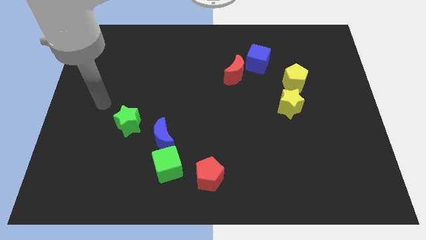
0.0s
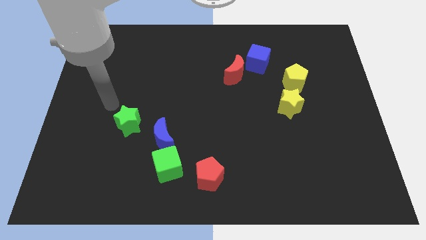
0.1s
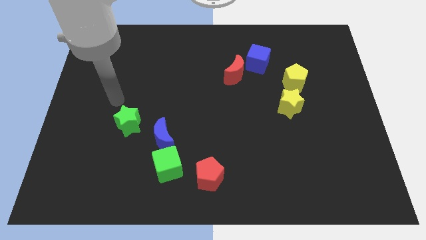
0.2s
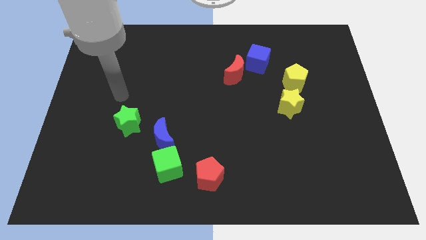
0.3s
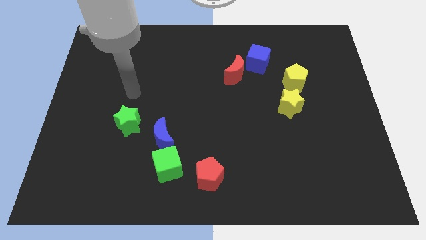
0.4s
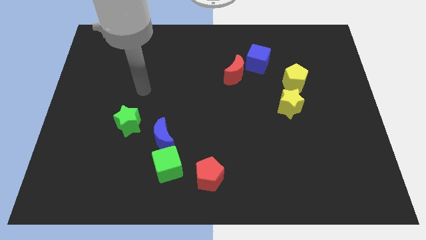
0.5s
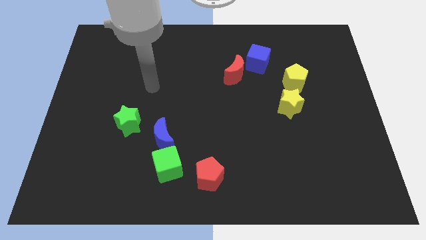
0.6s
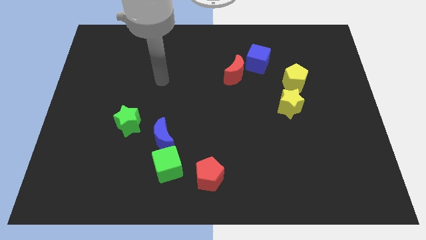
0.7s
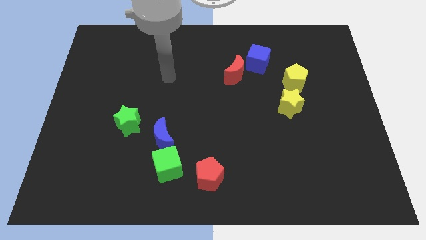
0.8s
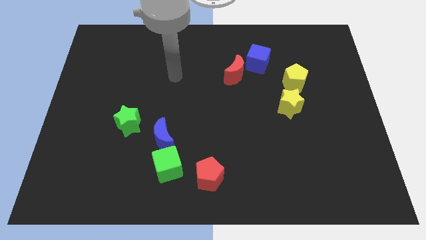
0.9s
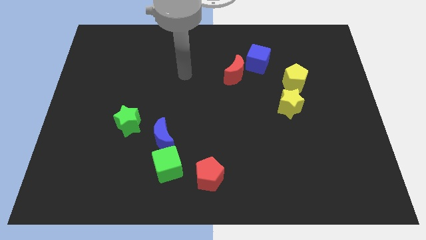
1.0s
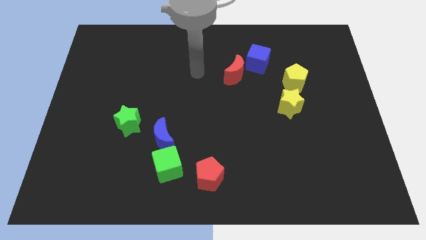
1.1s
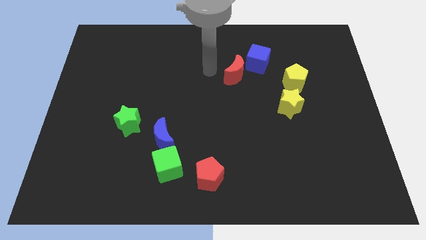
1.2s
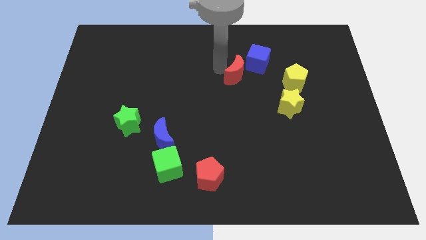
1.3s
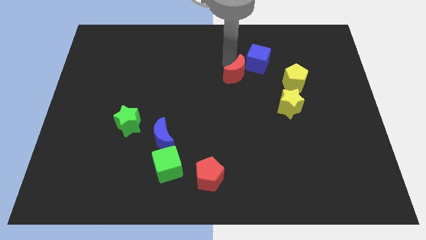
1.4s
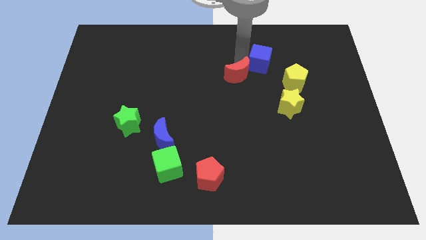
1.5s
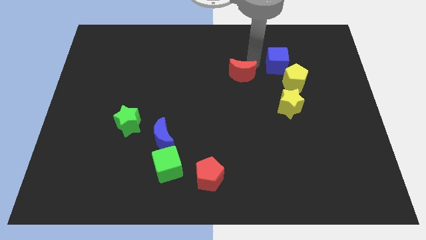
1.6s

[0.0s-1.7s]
pull the red moon apart from the blue cube

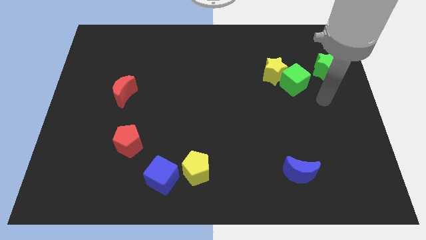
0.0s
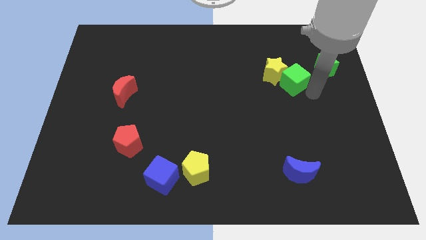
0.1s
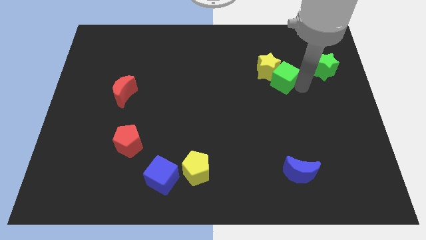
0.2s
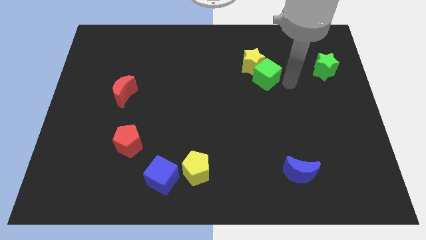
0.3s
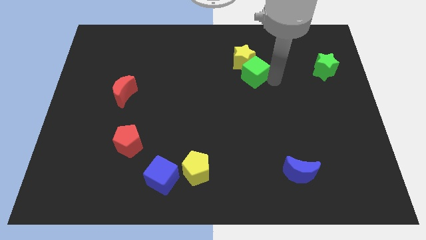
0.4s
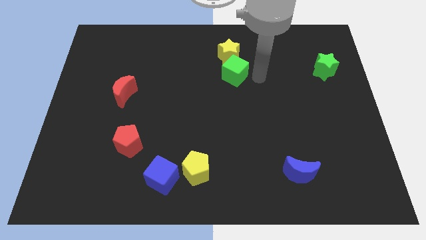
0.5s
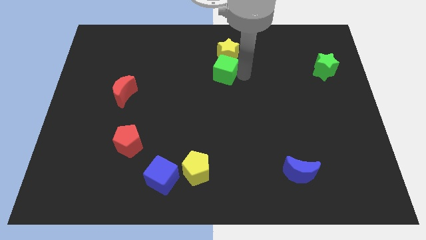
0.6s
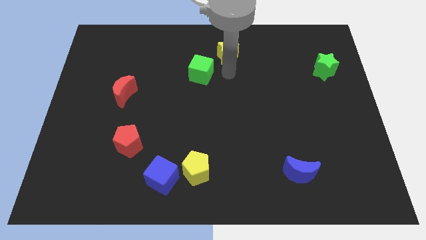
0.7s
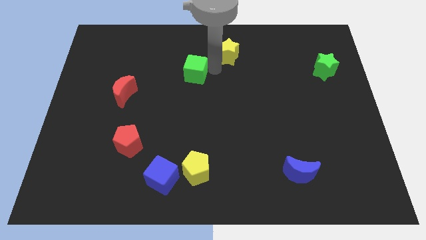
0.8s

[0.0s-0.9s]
move the yellow star away from the green cube

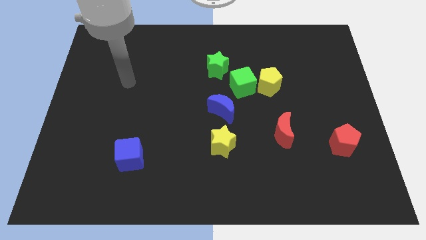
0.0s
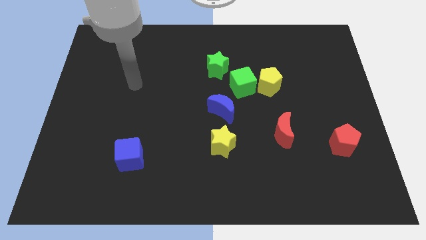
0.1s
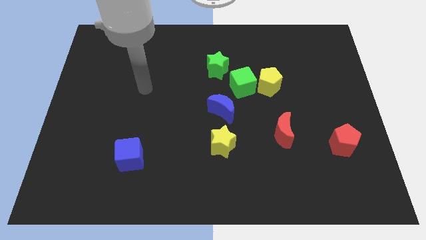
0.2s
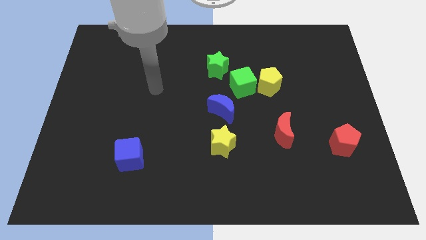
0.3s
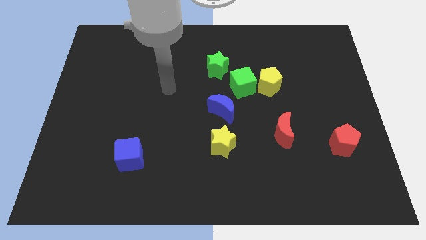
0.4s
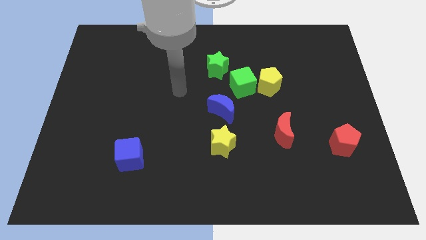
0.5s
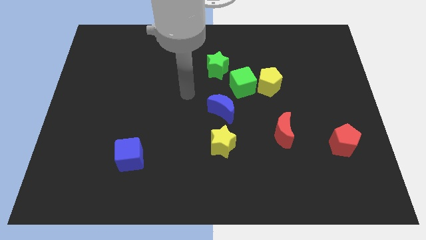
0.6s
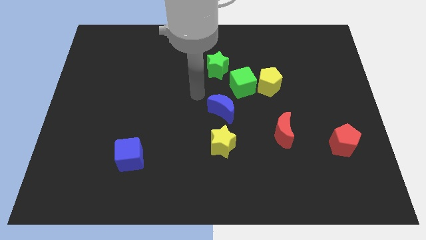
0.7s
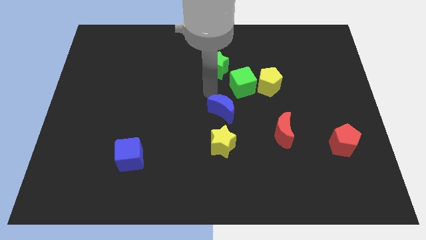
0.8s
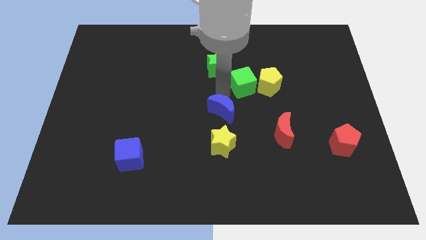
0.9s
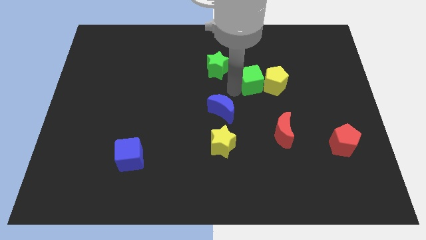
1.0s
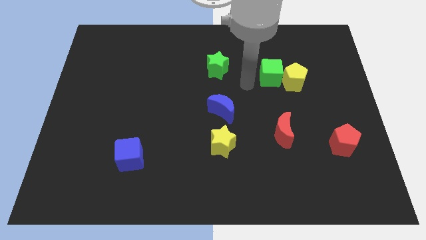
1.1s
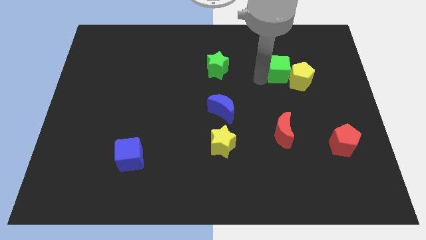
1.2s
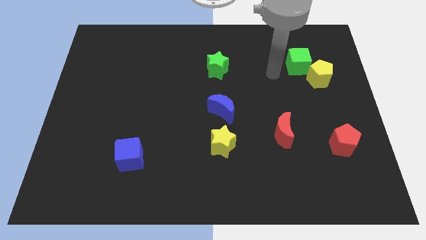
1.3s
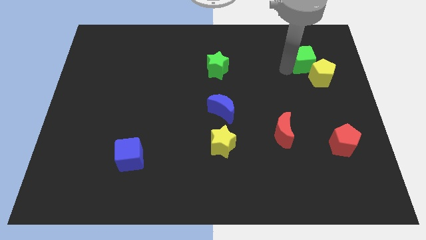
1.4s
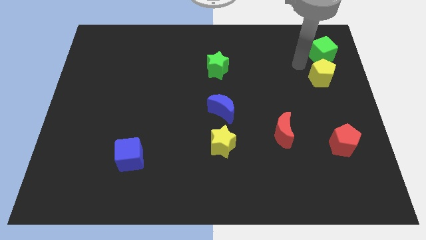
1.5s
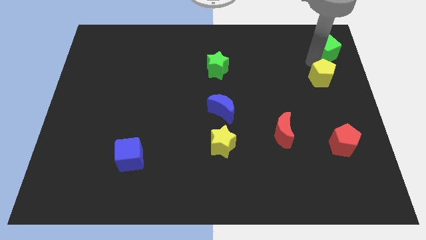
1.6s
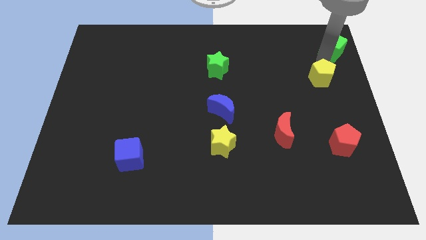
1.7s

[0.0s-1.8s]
move the yellow pentagon away from the green cube

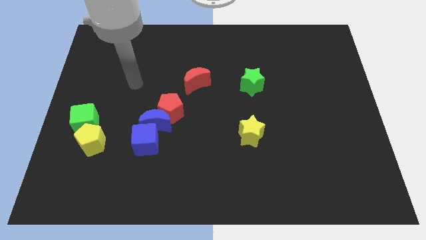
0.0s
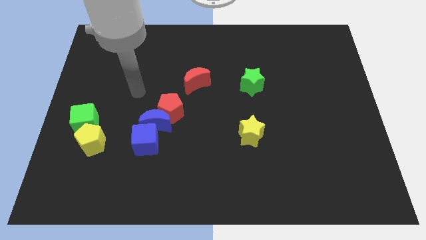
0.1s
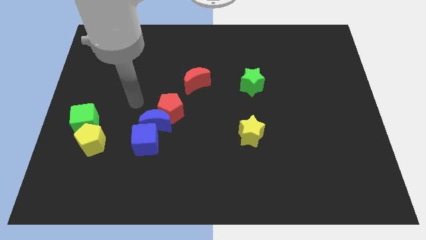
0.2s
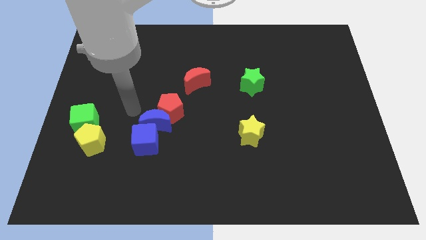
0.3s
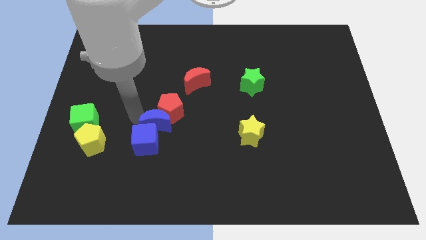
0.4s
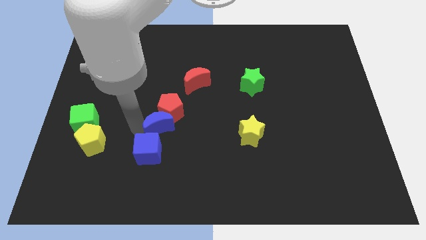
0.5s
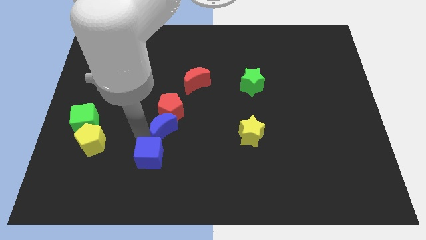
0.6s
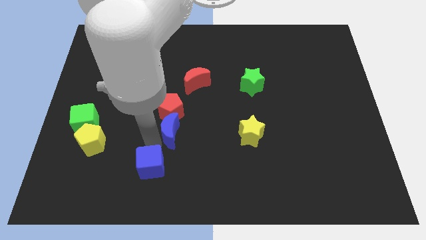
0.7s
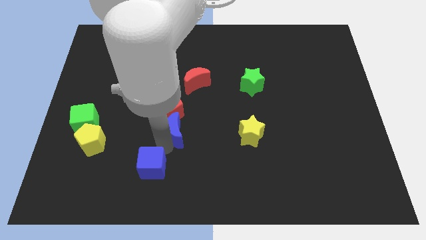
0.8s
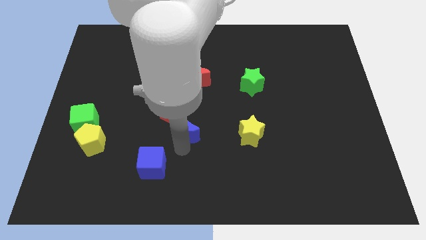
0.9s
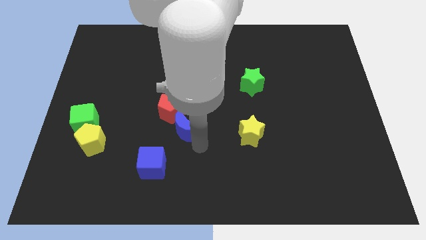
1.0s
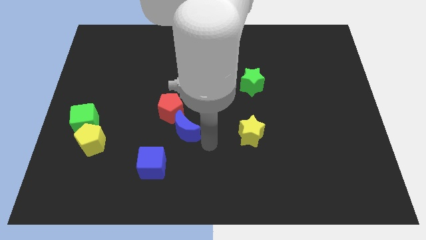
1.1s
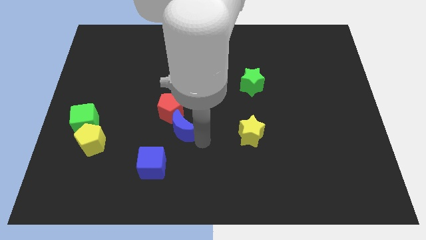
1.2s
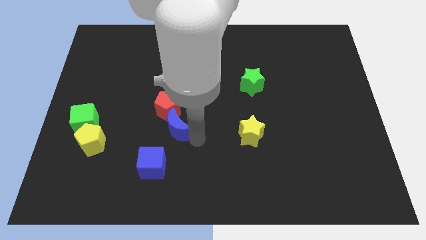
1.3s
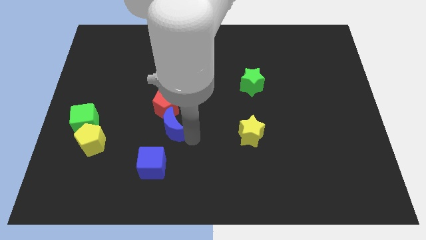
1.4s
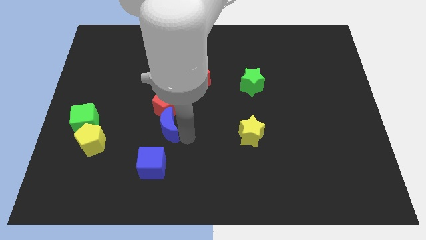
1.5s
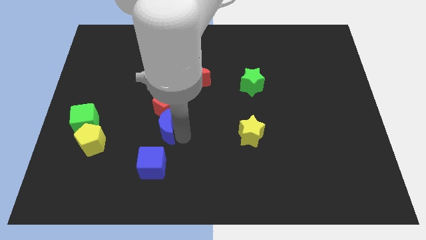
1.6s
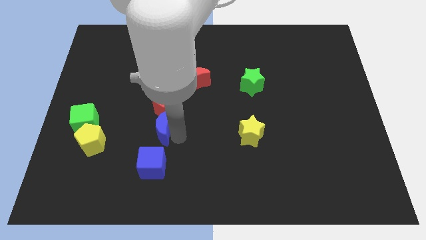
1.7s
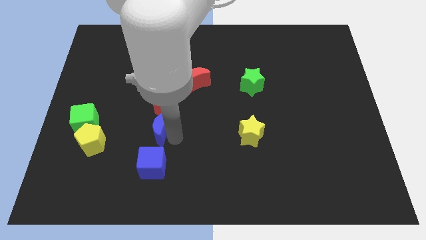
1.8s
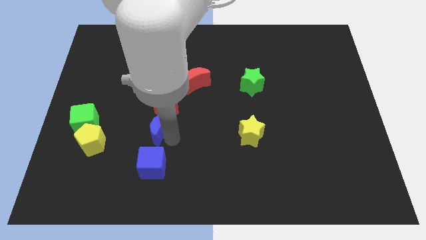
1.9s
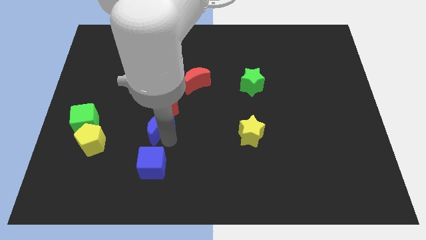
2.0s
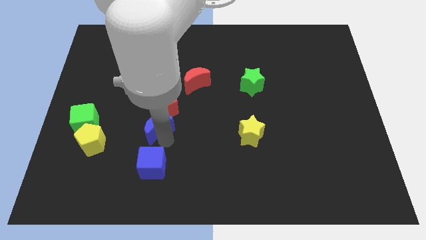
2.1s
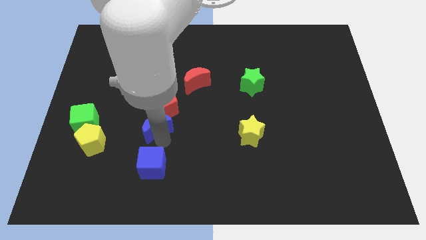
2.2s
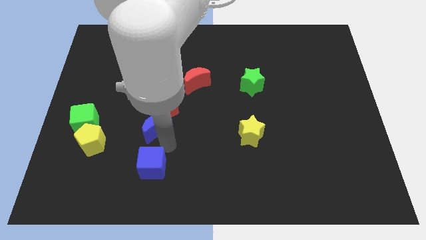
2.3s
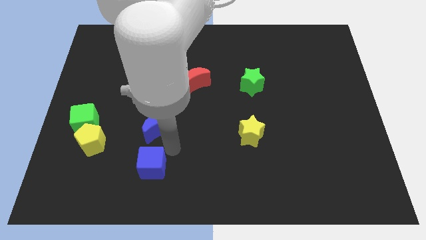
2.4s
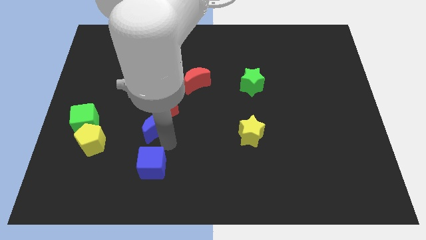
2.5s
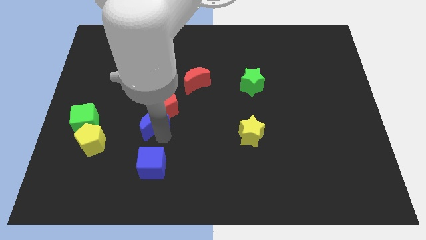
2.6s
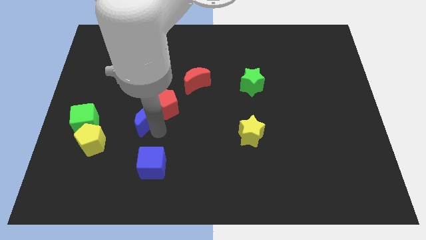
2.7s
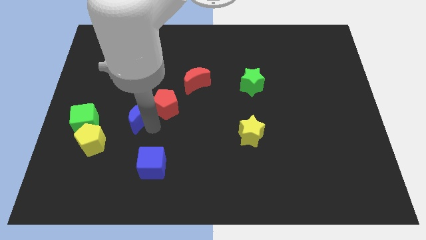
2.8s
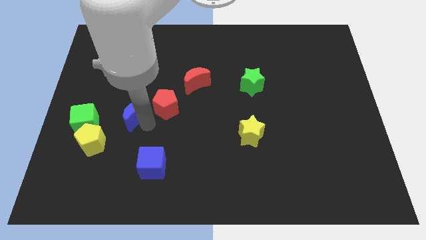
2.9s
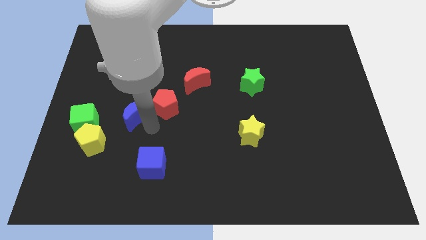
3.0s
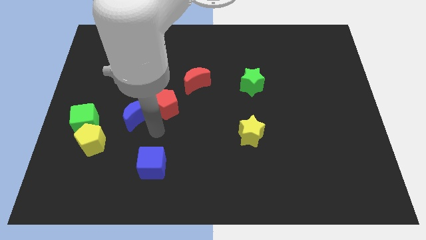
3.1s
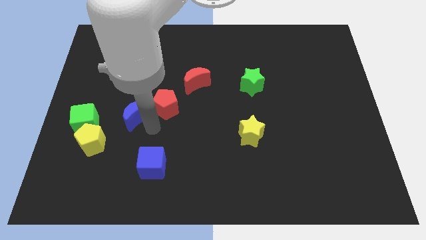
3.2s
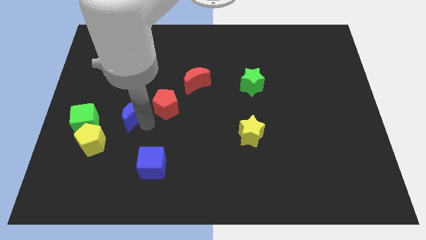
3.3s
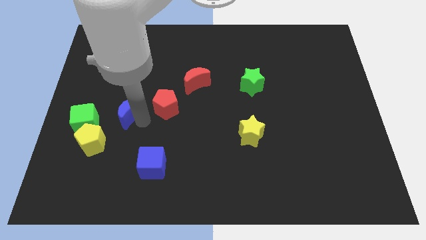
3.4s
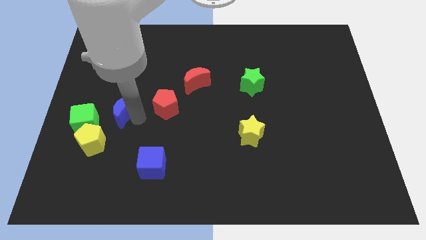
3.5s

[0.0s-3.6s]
move the blue moon away from the red pentagon and blue cube

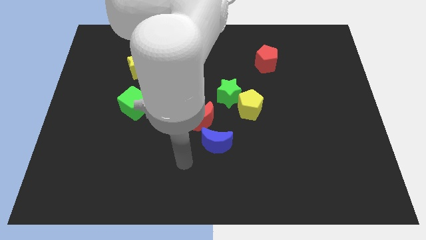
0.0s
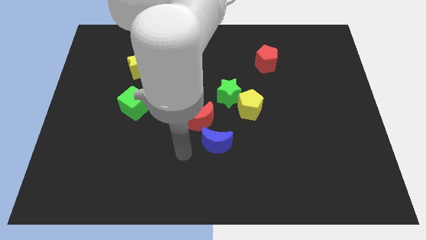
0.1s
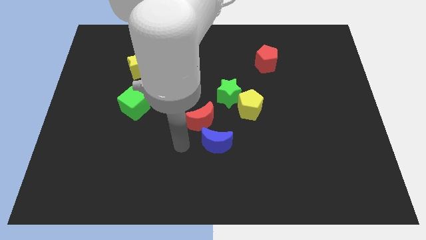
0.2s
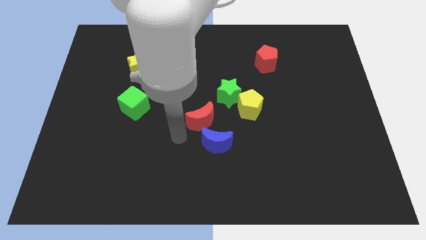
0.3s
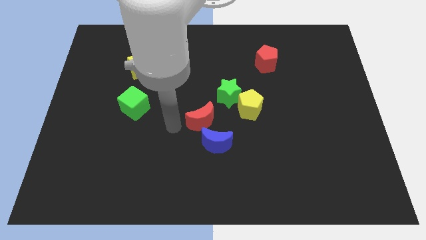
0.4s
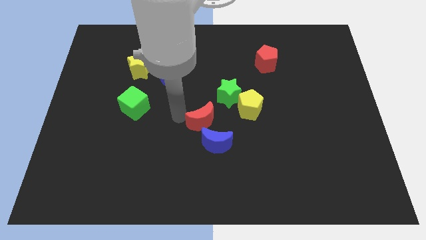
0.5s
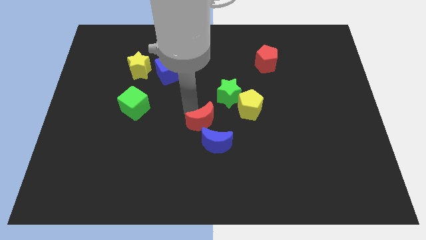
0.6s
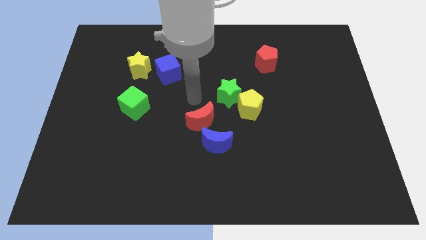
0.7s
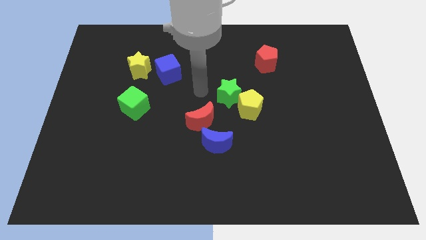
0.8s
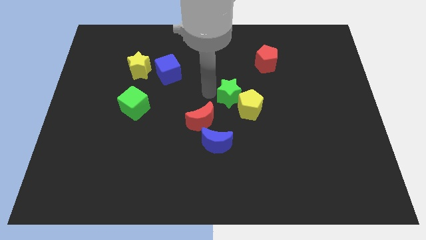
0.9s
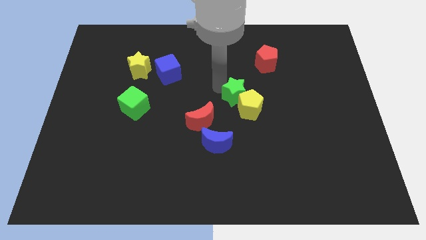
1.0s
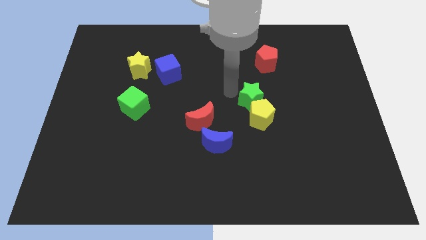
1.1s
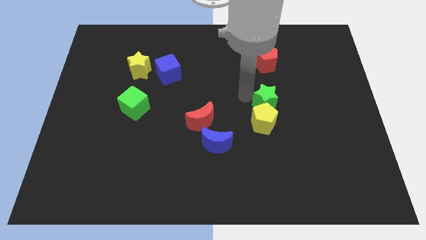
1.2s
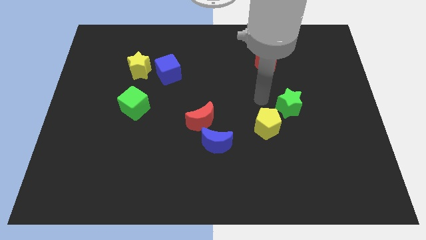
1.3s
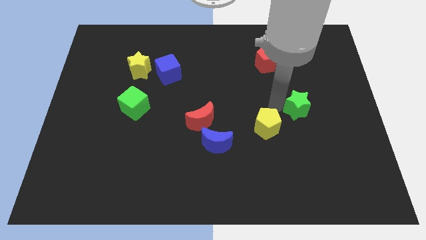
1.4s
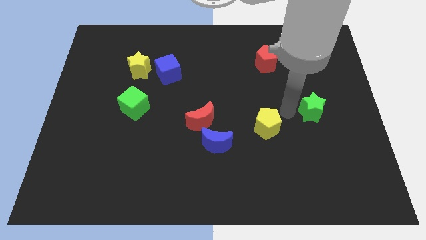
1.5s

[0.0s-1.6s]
pull the yellow pentagon apart from the green star
